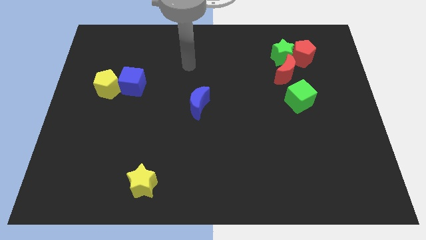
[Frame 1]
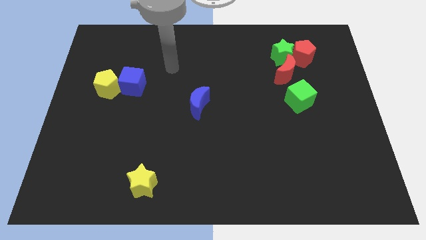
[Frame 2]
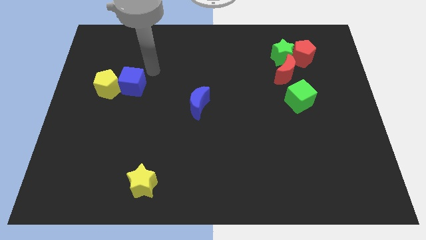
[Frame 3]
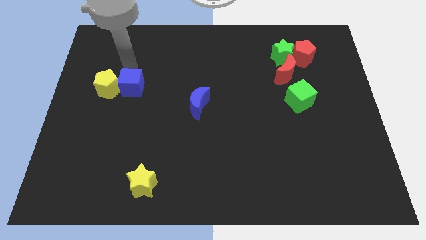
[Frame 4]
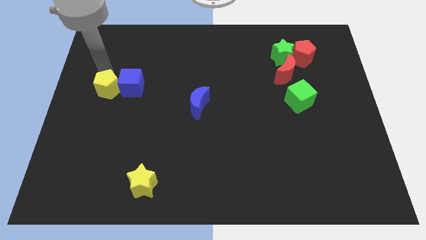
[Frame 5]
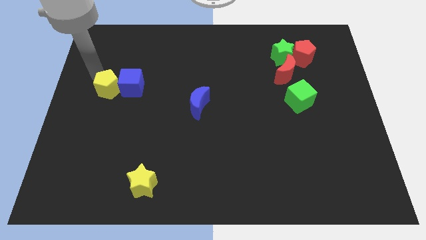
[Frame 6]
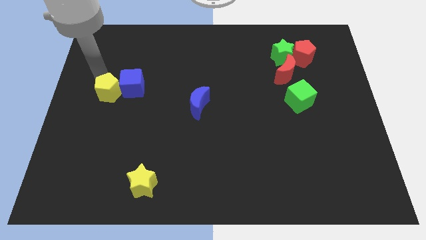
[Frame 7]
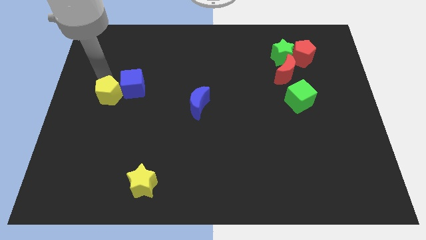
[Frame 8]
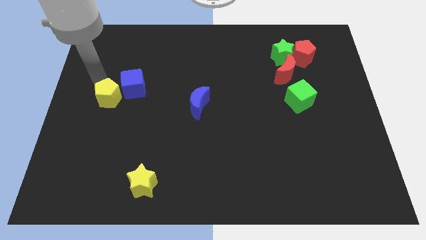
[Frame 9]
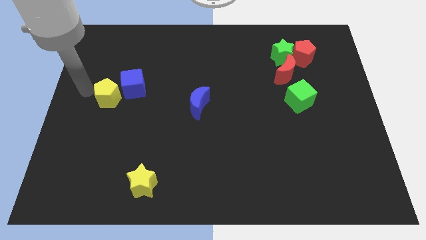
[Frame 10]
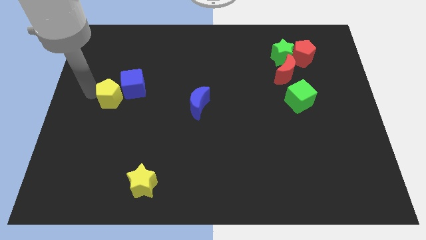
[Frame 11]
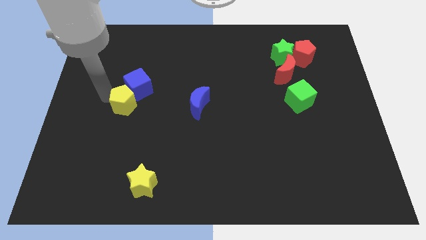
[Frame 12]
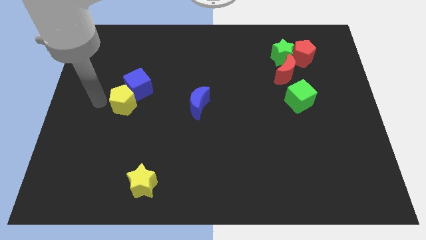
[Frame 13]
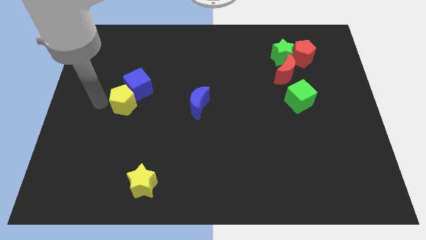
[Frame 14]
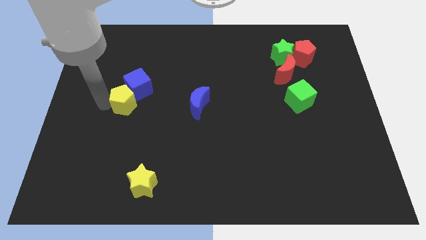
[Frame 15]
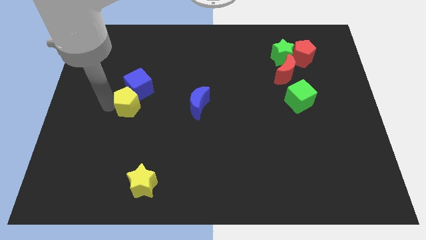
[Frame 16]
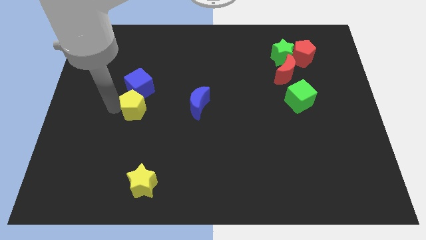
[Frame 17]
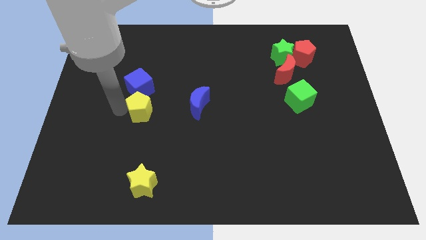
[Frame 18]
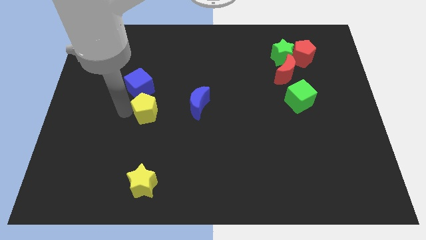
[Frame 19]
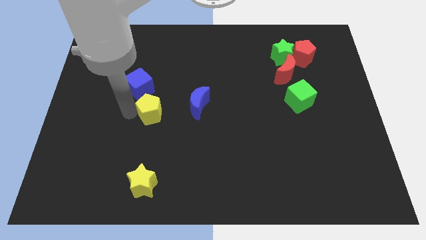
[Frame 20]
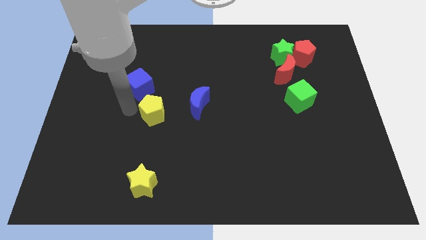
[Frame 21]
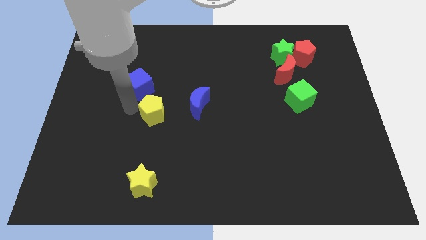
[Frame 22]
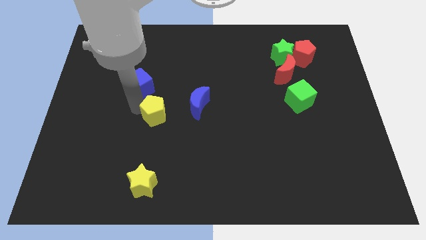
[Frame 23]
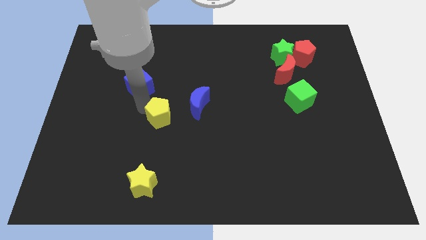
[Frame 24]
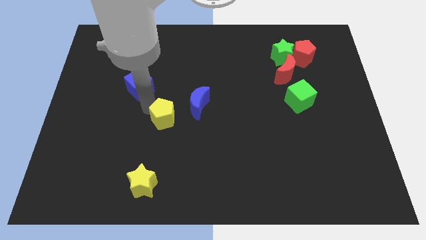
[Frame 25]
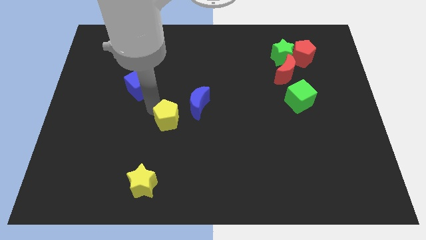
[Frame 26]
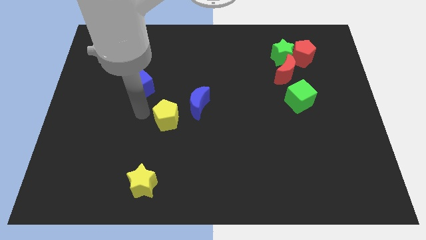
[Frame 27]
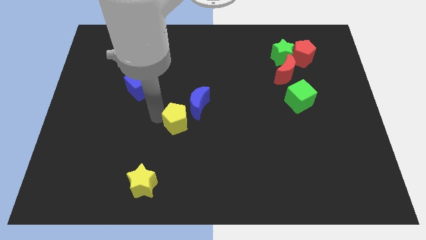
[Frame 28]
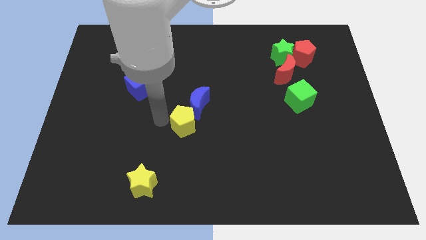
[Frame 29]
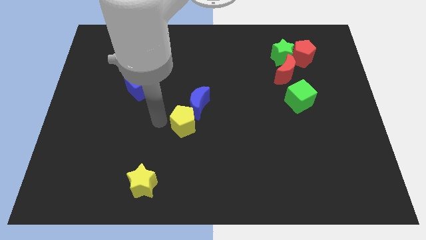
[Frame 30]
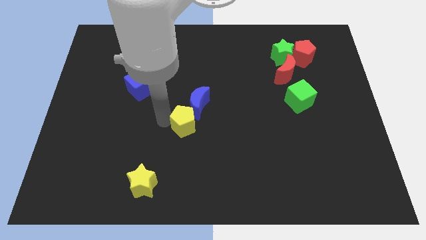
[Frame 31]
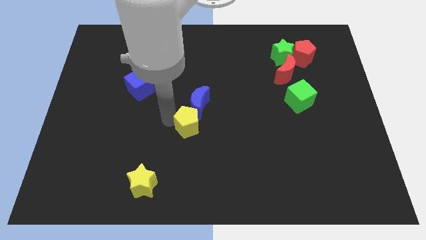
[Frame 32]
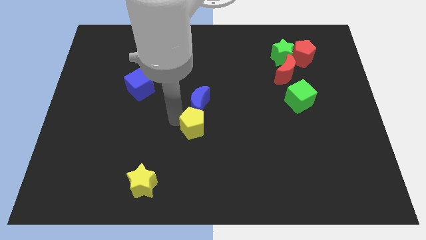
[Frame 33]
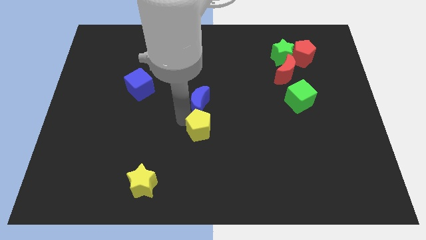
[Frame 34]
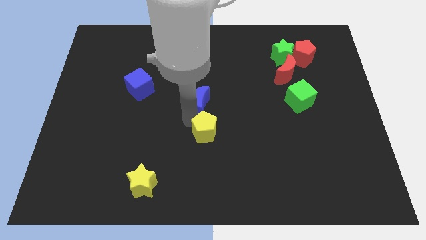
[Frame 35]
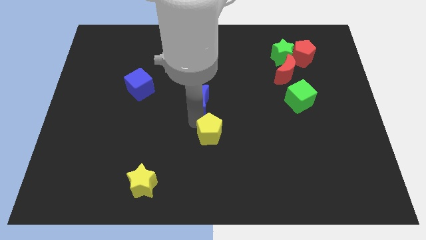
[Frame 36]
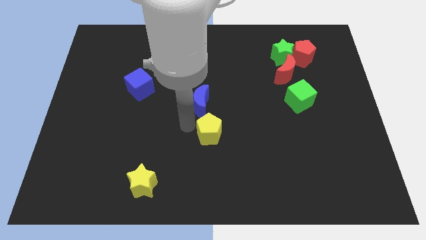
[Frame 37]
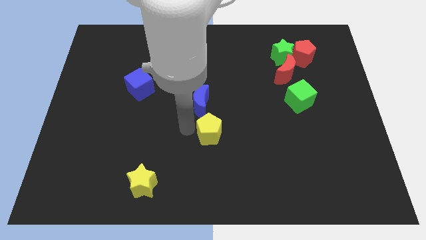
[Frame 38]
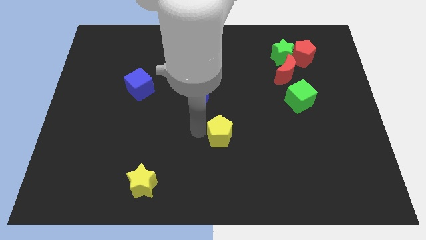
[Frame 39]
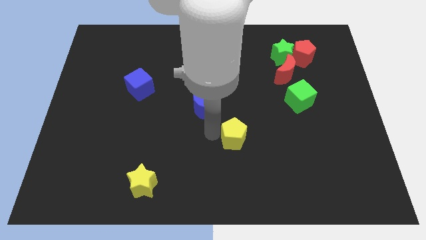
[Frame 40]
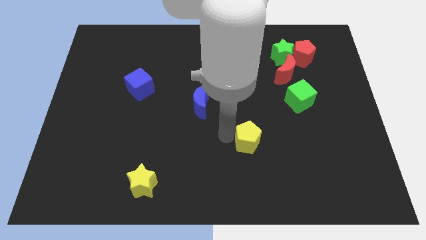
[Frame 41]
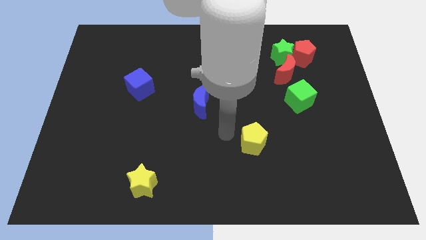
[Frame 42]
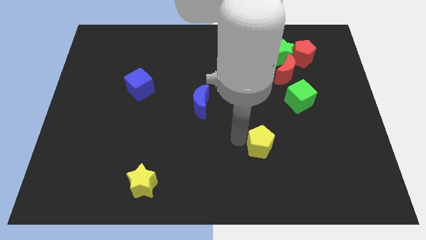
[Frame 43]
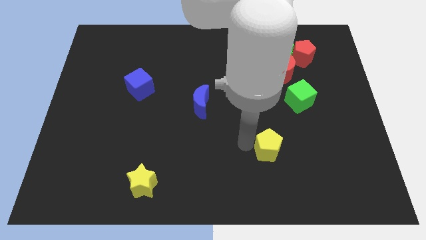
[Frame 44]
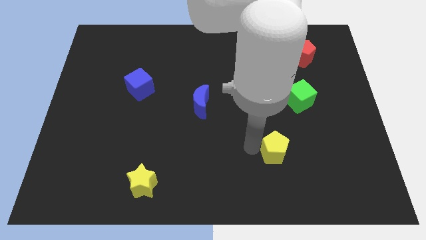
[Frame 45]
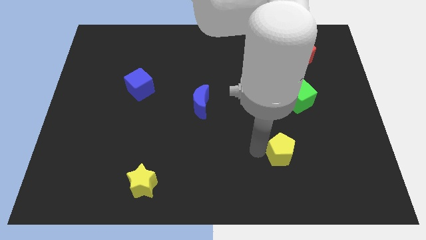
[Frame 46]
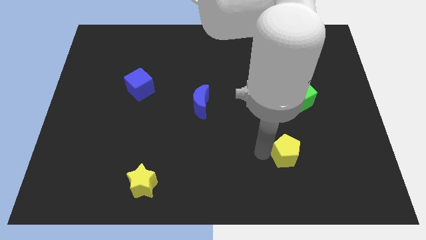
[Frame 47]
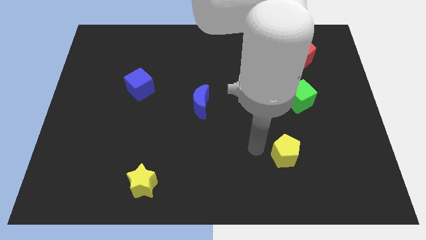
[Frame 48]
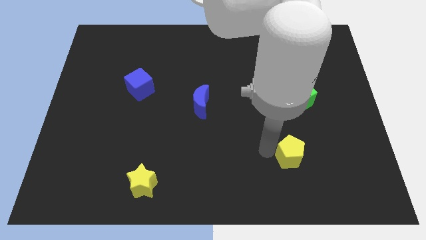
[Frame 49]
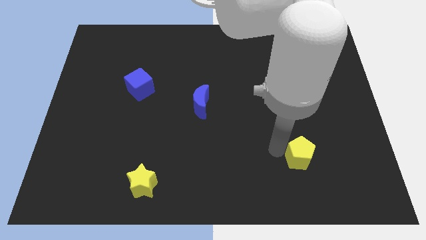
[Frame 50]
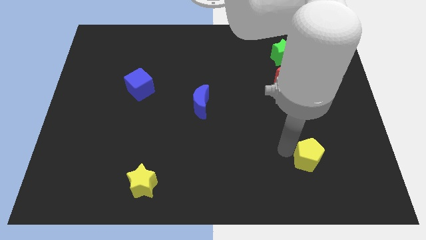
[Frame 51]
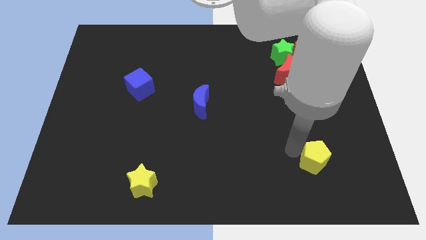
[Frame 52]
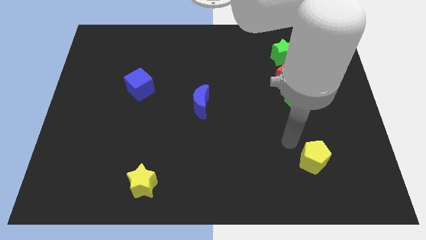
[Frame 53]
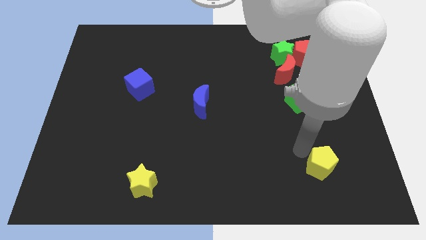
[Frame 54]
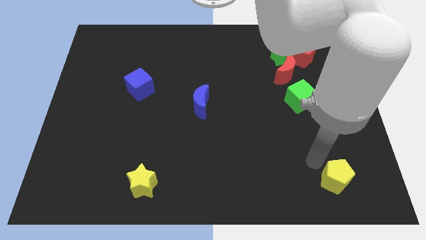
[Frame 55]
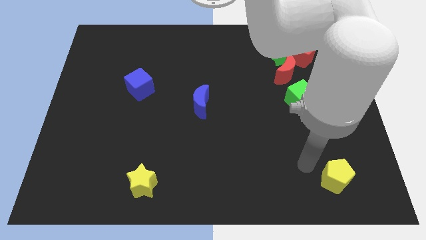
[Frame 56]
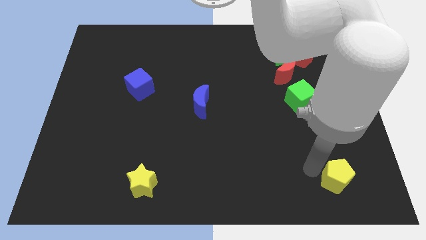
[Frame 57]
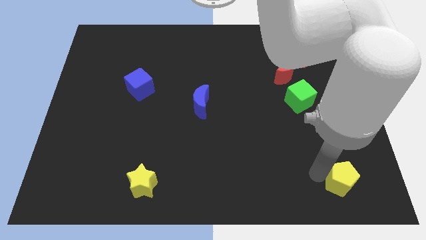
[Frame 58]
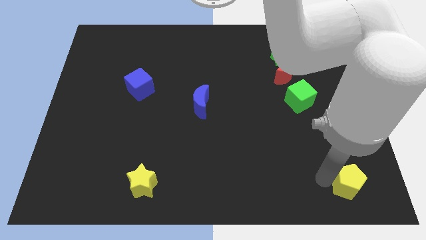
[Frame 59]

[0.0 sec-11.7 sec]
put the yellow pentagon to the bottom right of the board

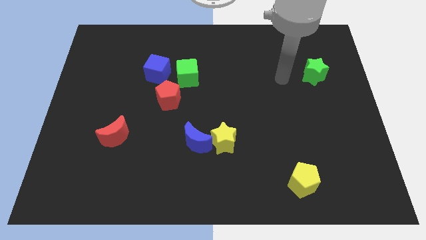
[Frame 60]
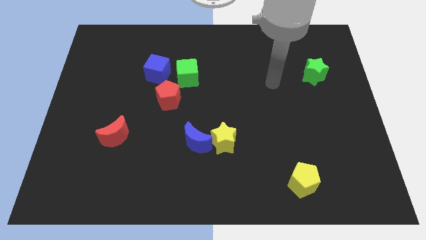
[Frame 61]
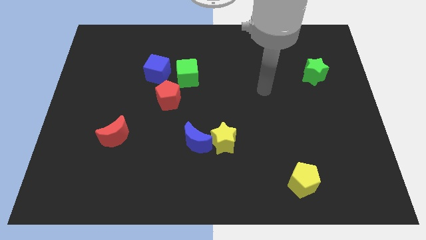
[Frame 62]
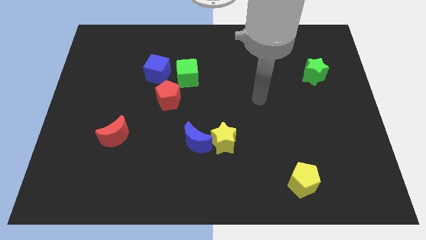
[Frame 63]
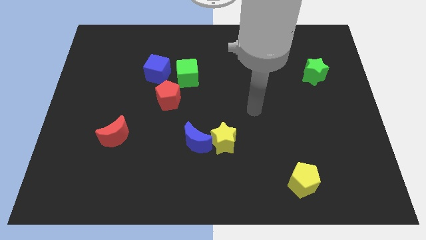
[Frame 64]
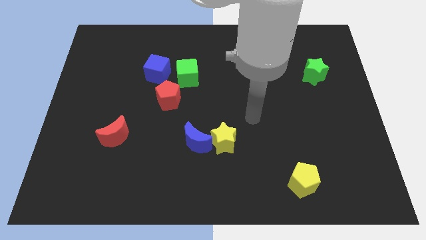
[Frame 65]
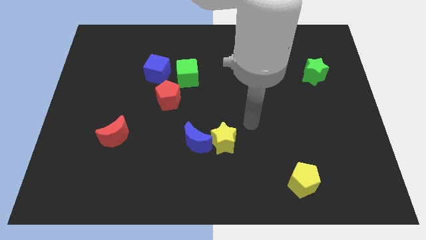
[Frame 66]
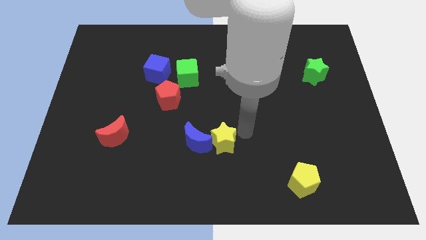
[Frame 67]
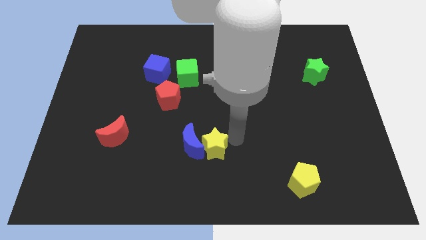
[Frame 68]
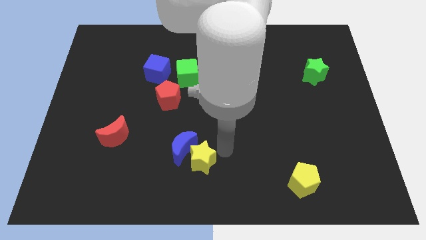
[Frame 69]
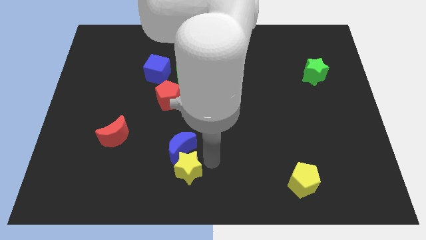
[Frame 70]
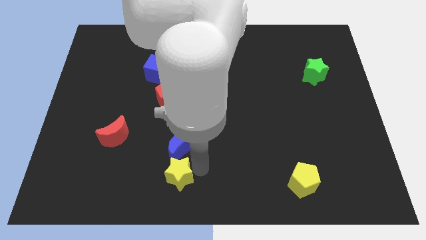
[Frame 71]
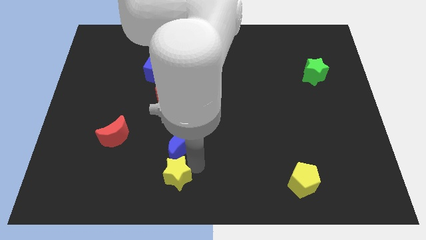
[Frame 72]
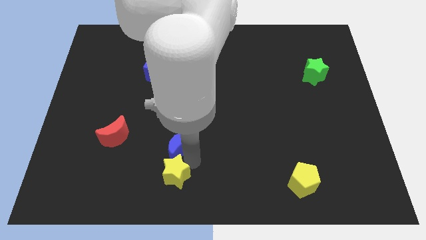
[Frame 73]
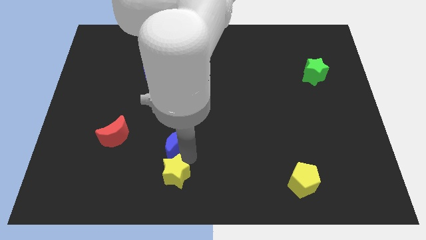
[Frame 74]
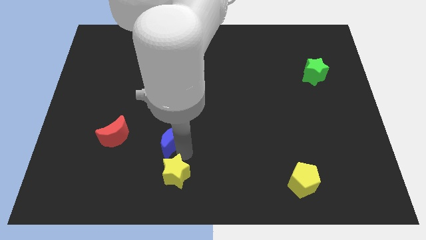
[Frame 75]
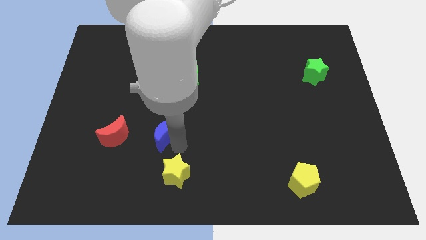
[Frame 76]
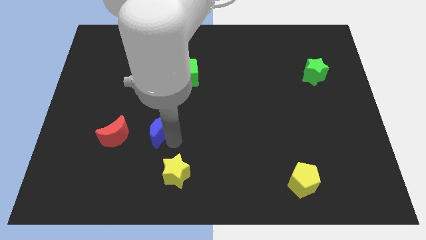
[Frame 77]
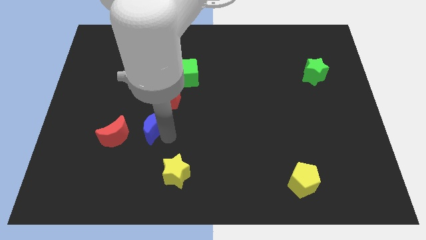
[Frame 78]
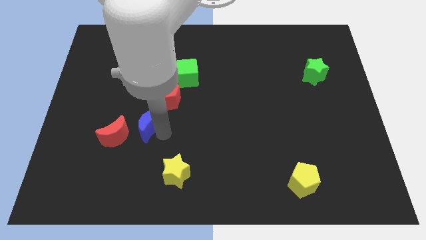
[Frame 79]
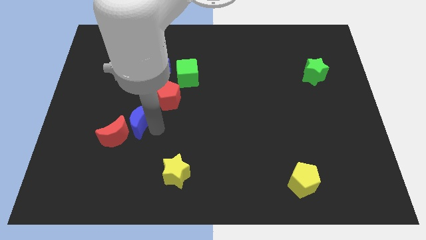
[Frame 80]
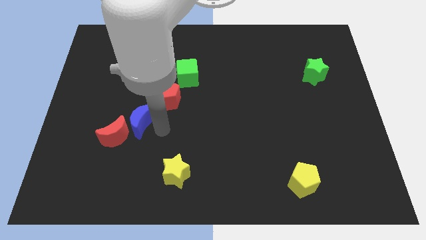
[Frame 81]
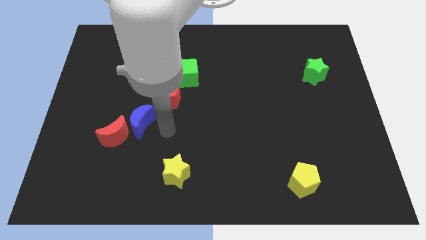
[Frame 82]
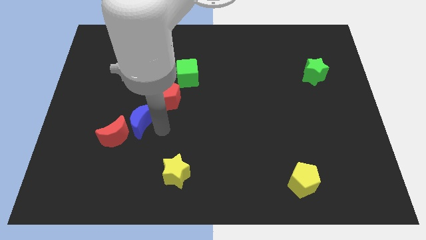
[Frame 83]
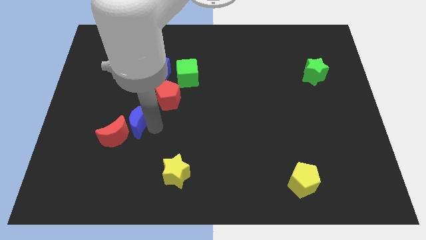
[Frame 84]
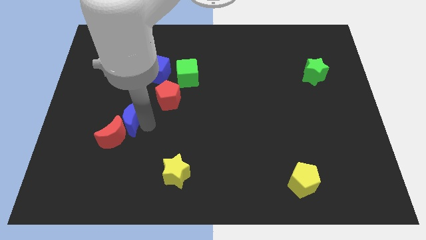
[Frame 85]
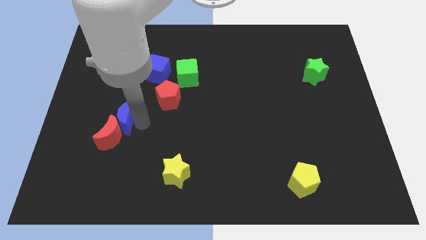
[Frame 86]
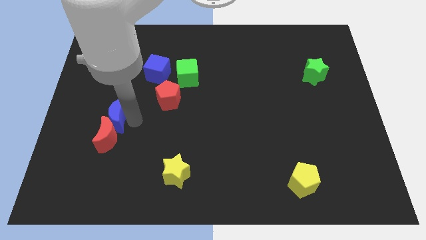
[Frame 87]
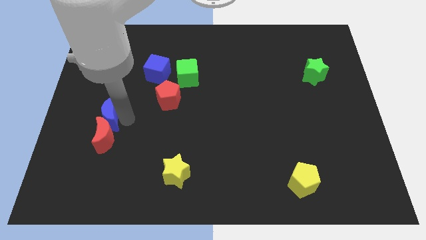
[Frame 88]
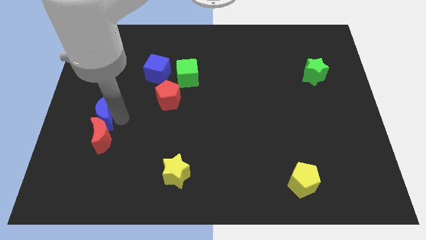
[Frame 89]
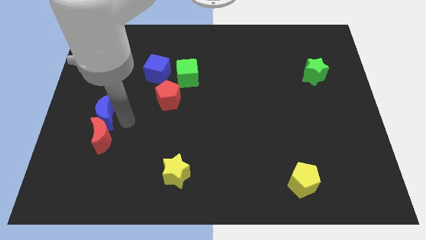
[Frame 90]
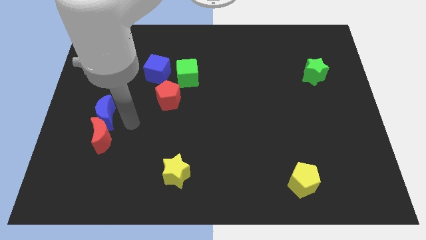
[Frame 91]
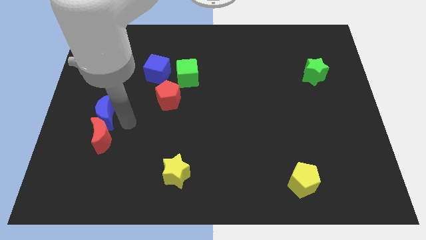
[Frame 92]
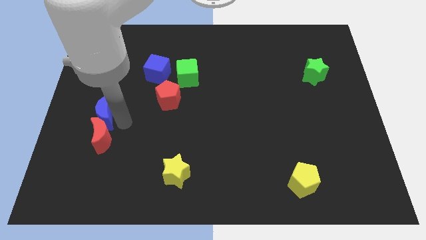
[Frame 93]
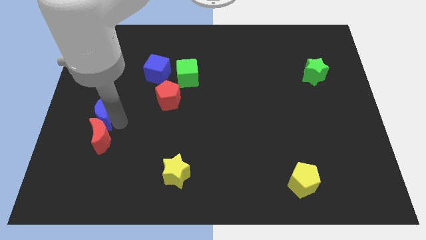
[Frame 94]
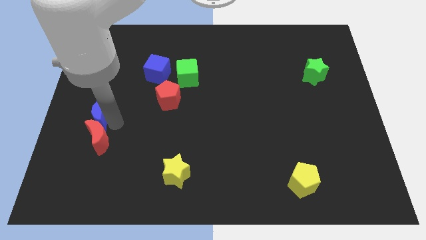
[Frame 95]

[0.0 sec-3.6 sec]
move the blue moon to the left side of the board
